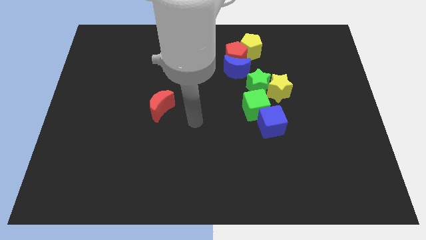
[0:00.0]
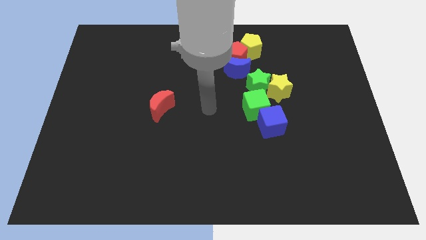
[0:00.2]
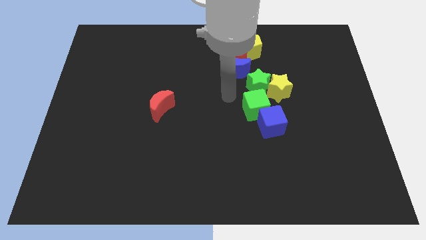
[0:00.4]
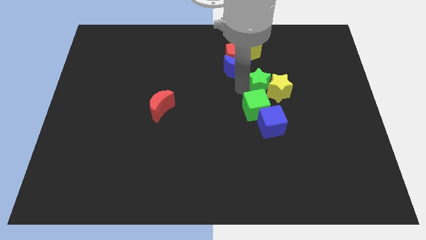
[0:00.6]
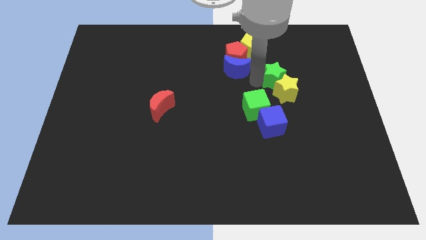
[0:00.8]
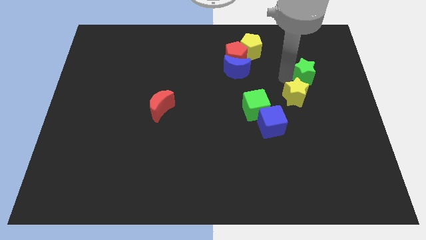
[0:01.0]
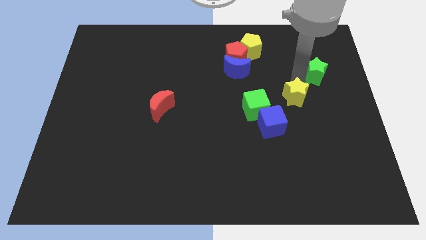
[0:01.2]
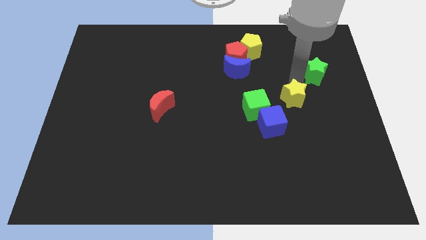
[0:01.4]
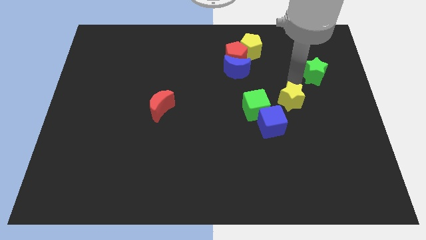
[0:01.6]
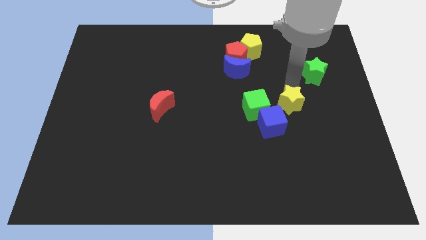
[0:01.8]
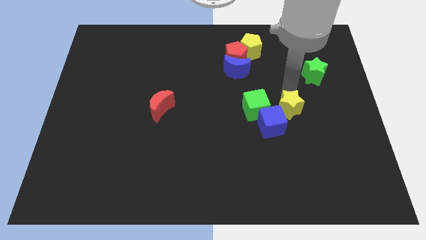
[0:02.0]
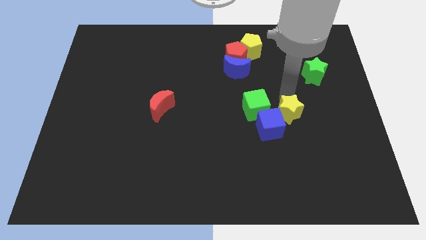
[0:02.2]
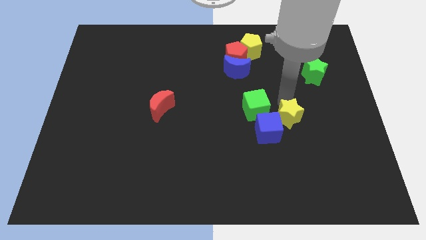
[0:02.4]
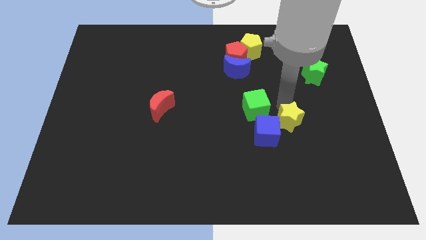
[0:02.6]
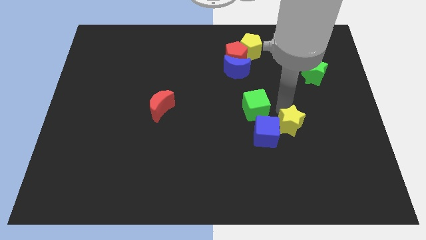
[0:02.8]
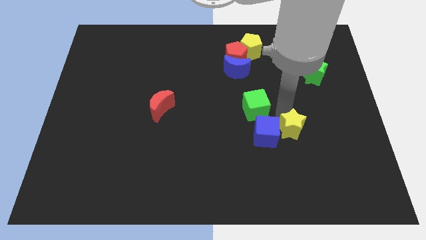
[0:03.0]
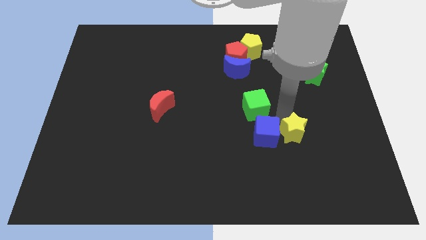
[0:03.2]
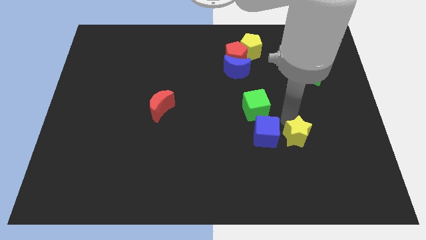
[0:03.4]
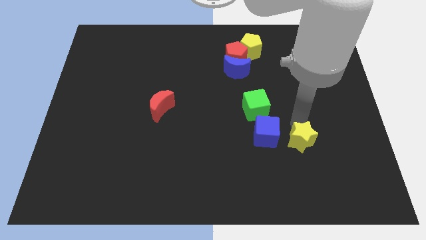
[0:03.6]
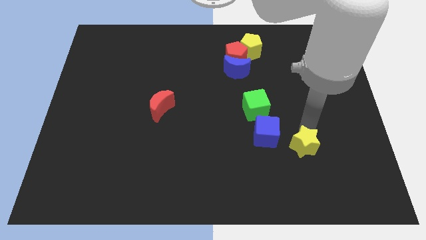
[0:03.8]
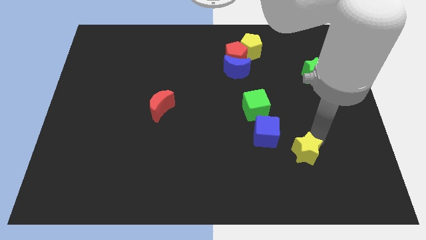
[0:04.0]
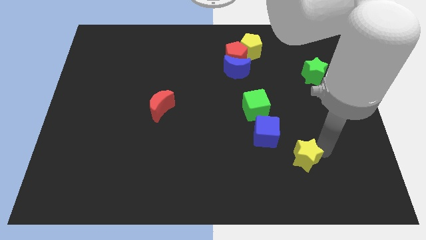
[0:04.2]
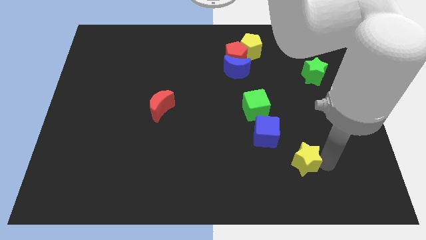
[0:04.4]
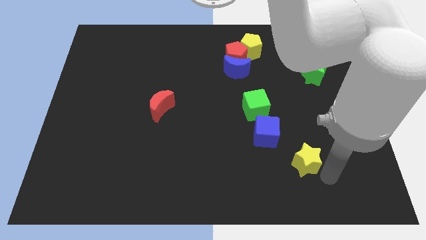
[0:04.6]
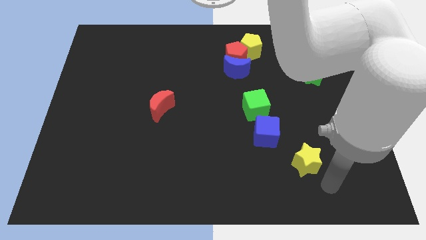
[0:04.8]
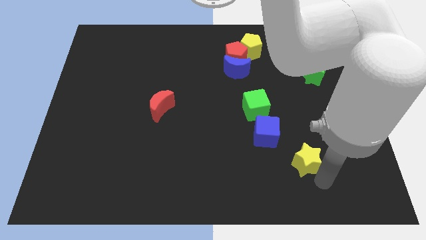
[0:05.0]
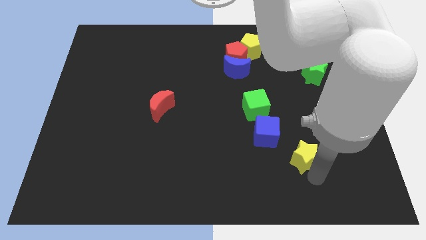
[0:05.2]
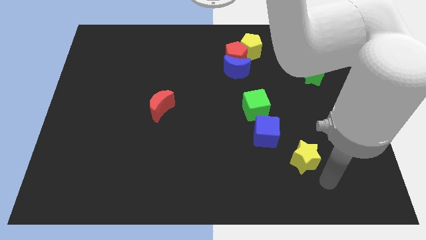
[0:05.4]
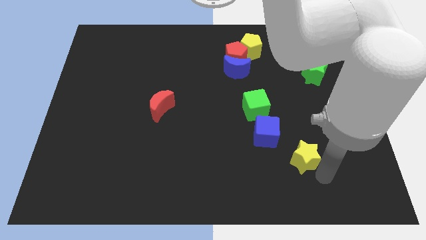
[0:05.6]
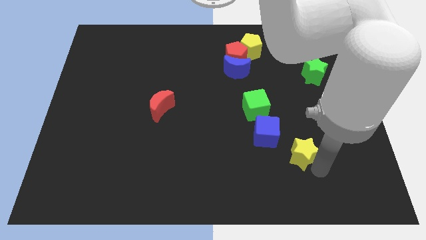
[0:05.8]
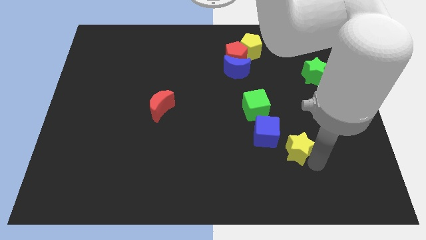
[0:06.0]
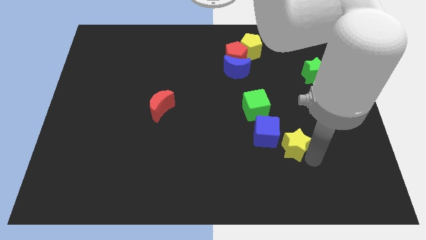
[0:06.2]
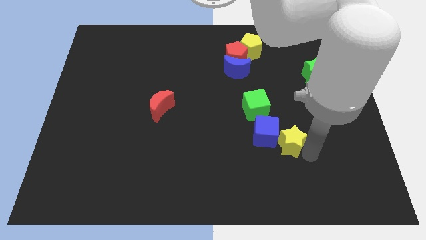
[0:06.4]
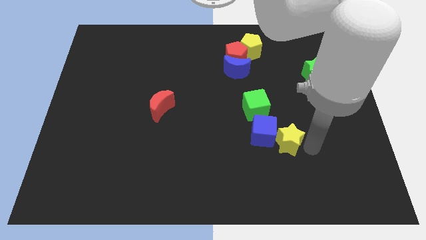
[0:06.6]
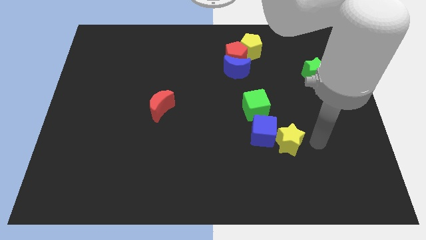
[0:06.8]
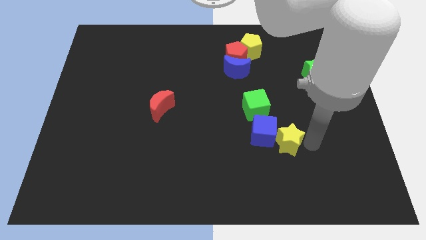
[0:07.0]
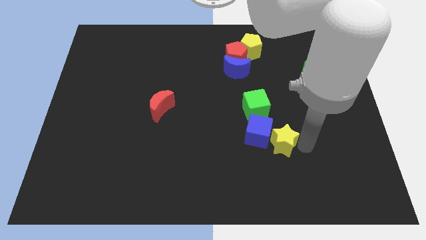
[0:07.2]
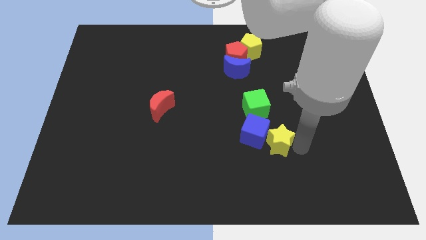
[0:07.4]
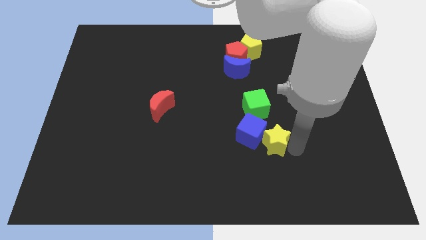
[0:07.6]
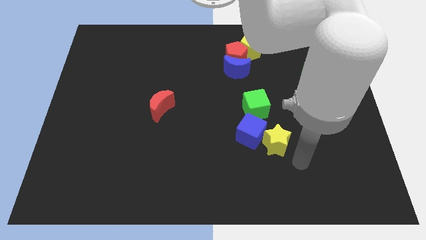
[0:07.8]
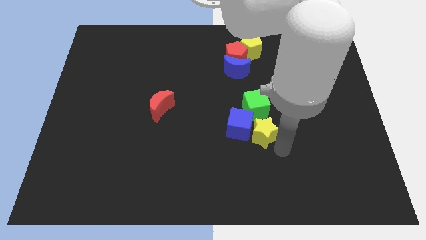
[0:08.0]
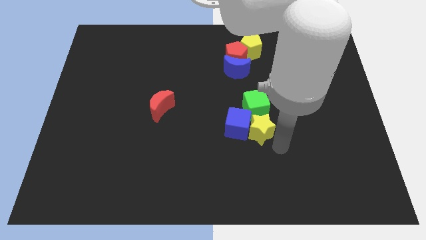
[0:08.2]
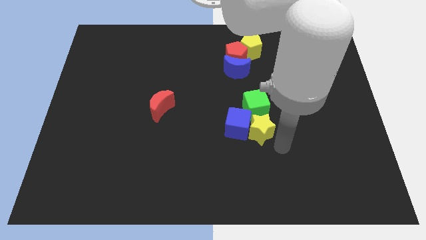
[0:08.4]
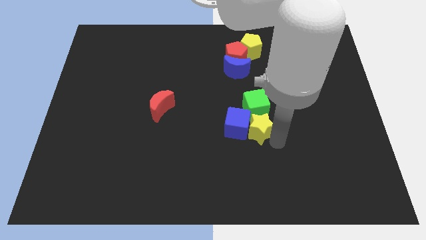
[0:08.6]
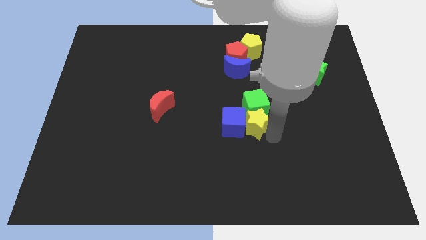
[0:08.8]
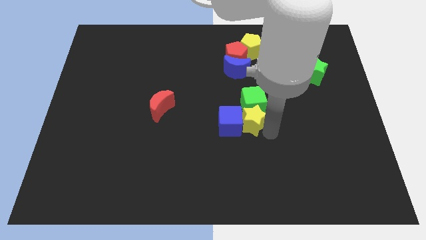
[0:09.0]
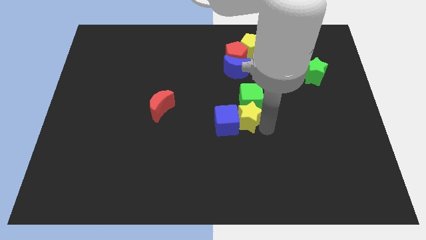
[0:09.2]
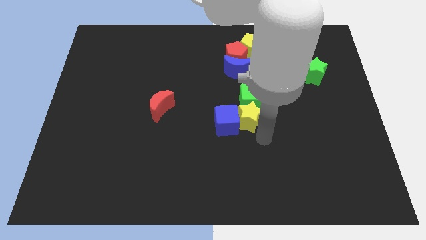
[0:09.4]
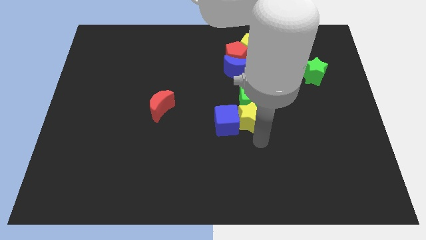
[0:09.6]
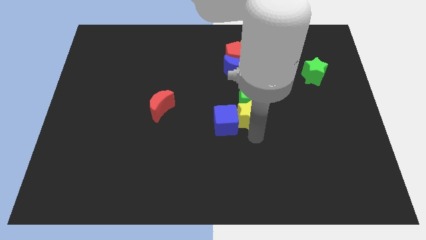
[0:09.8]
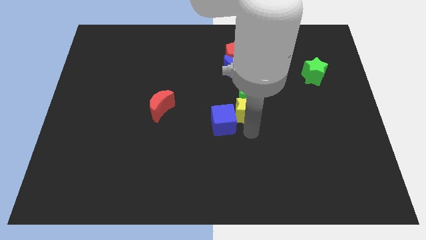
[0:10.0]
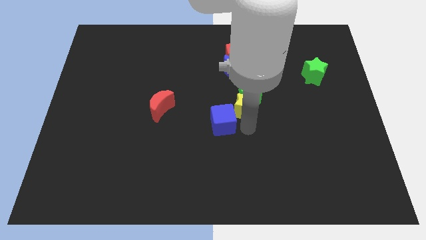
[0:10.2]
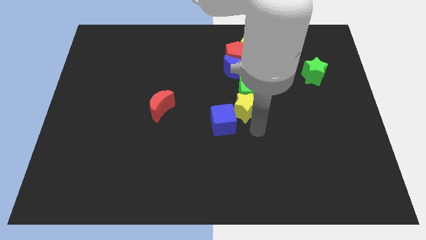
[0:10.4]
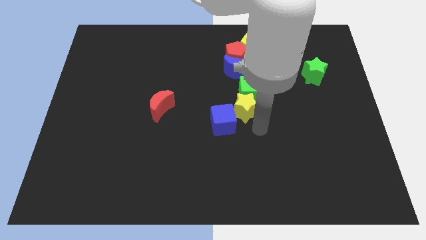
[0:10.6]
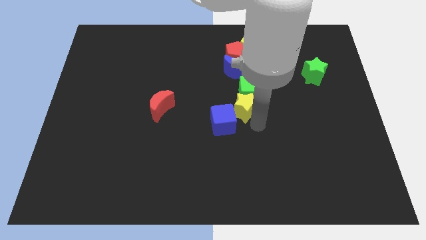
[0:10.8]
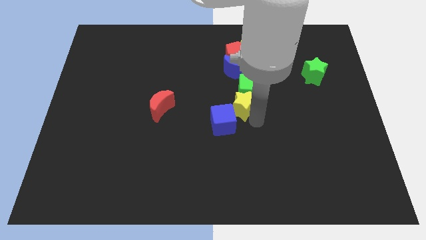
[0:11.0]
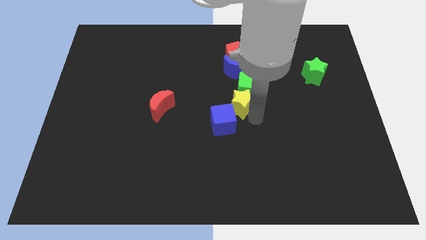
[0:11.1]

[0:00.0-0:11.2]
slide the yellow star to the bottom of the red pentagon

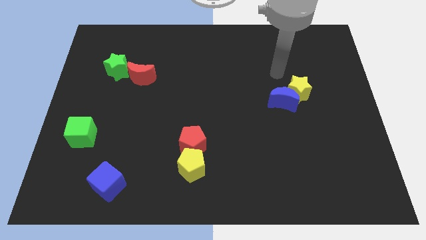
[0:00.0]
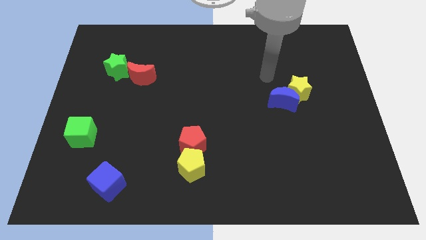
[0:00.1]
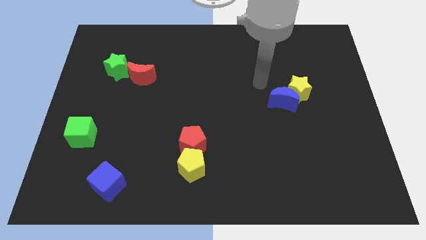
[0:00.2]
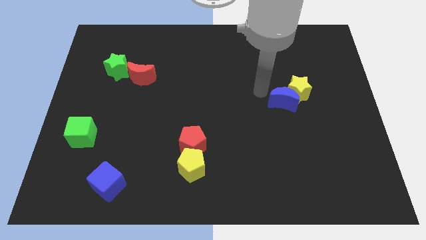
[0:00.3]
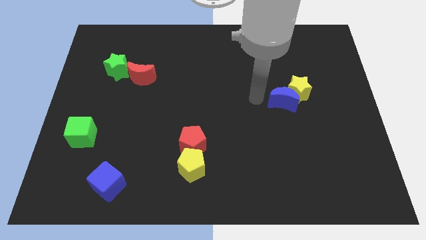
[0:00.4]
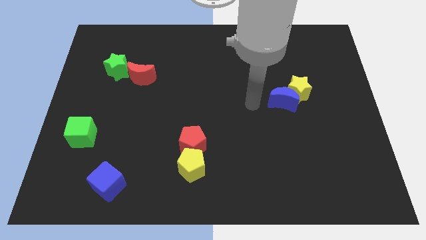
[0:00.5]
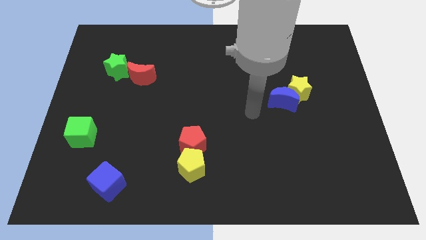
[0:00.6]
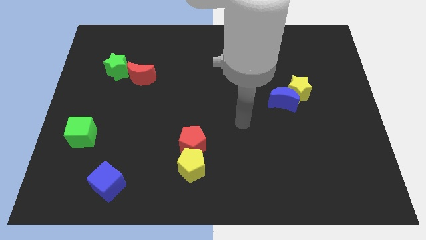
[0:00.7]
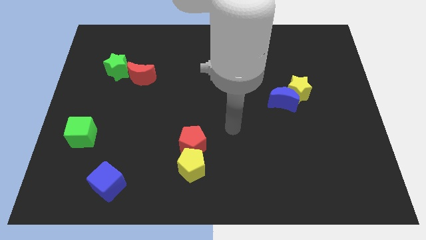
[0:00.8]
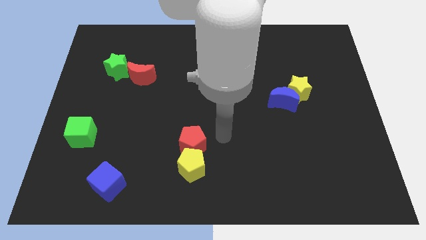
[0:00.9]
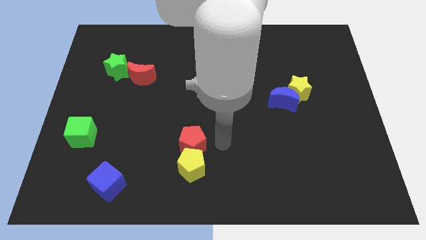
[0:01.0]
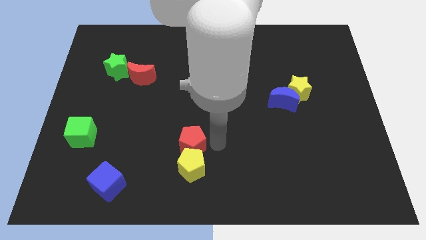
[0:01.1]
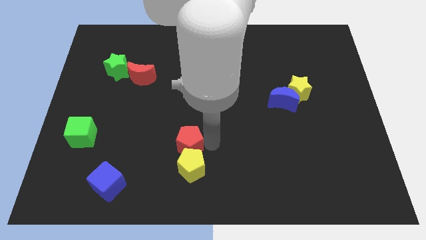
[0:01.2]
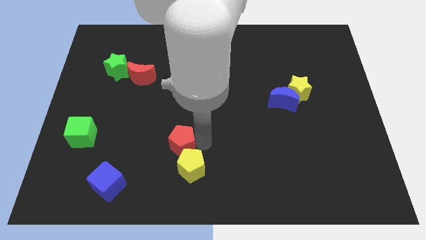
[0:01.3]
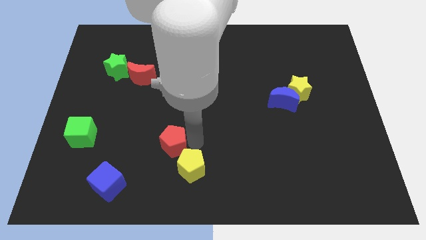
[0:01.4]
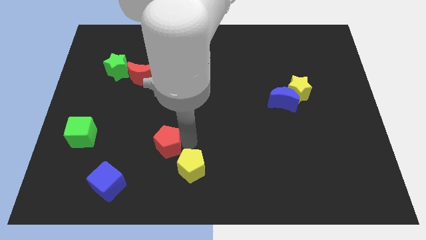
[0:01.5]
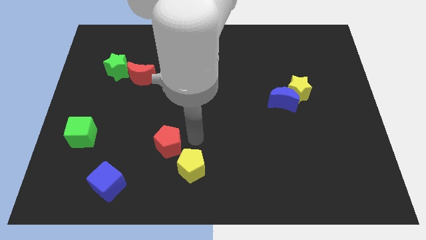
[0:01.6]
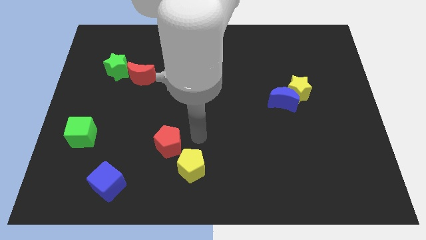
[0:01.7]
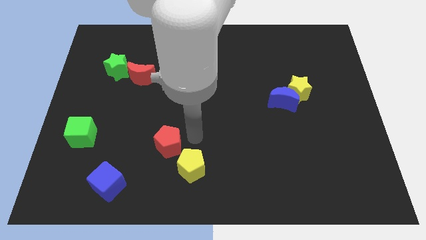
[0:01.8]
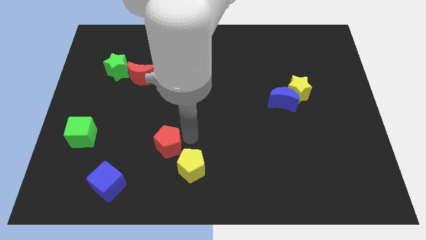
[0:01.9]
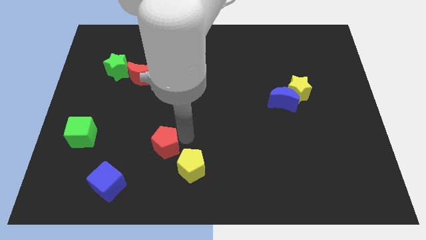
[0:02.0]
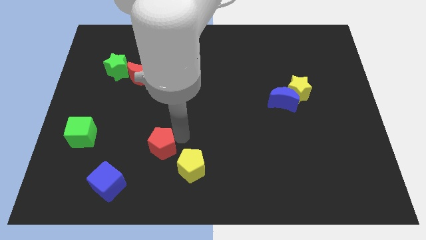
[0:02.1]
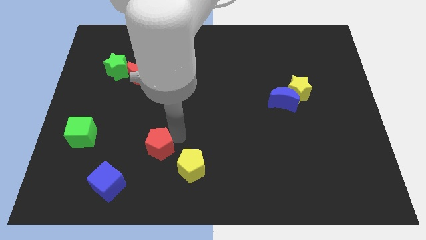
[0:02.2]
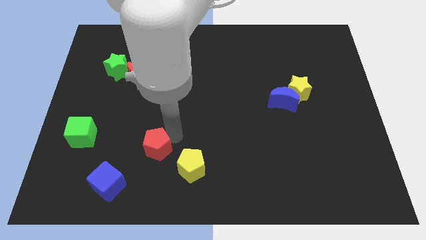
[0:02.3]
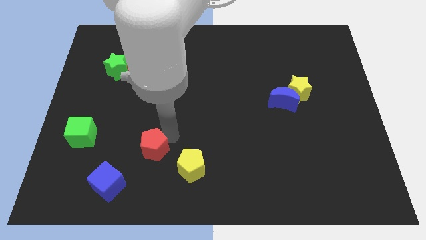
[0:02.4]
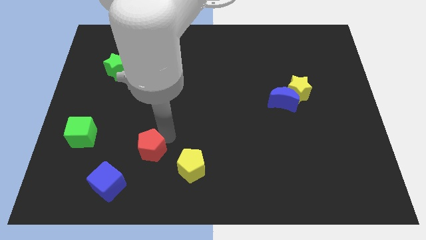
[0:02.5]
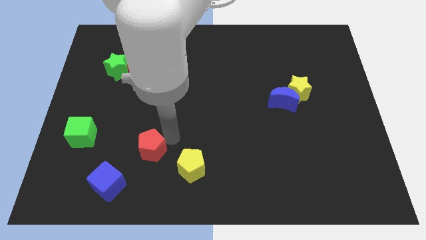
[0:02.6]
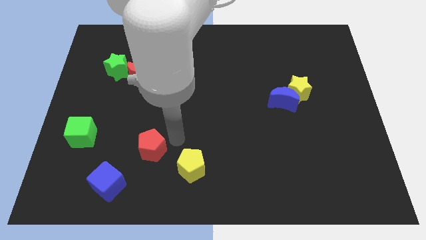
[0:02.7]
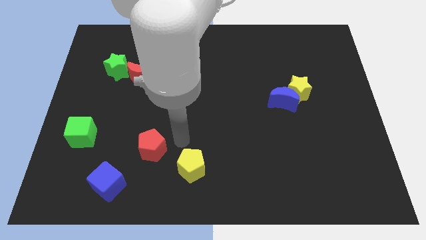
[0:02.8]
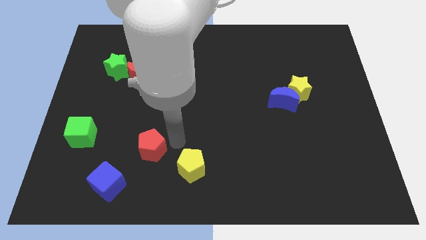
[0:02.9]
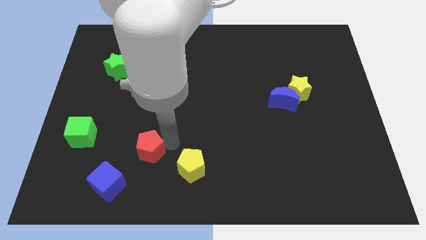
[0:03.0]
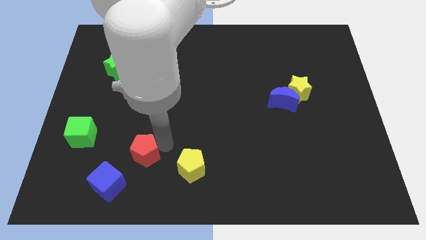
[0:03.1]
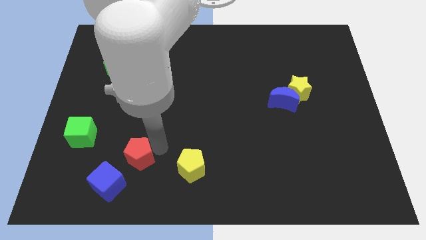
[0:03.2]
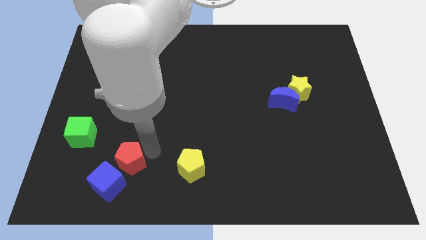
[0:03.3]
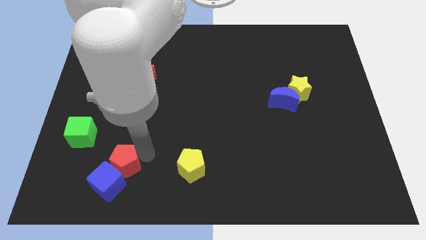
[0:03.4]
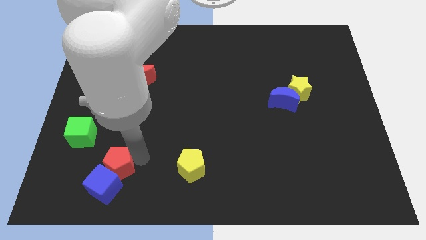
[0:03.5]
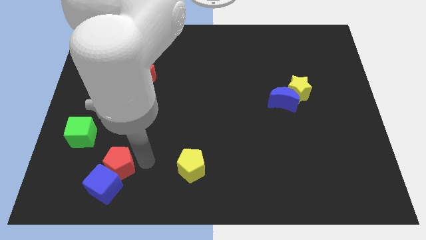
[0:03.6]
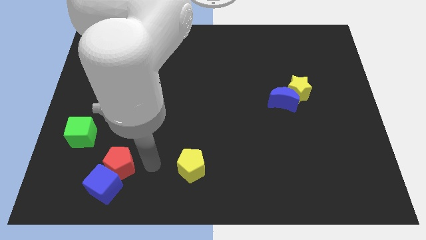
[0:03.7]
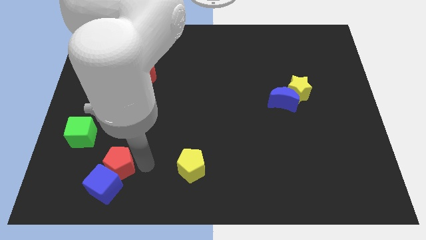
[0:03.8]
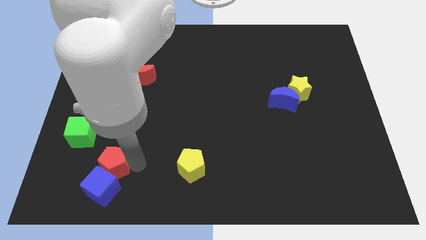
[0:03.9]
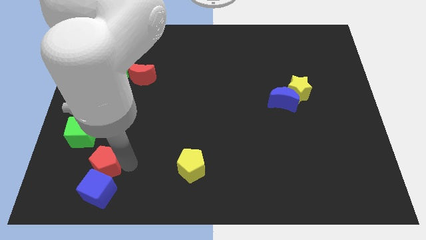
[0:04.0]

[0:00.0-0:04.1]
push the red pentagon to the top left of the blue cube
